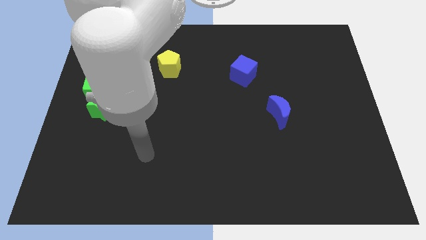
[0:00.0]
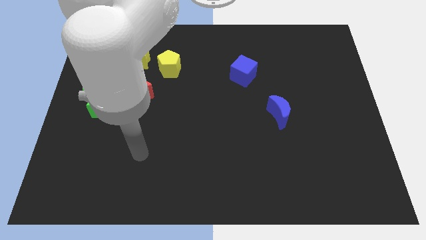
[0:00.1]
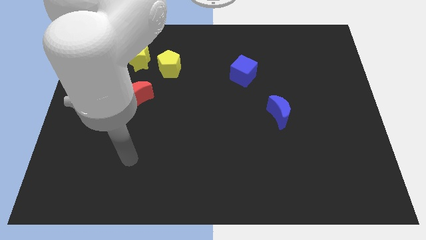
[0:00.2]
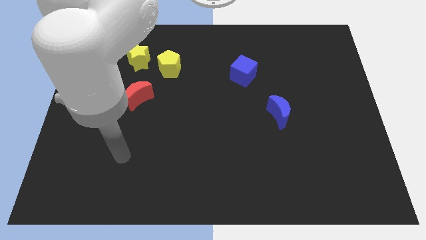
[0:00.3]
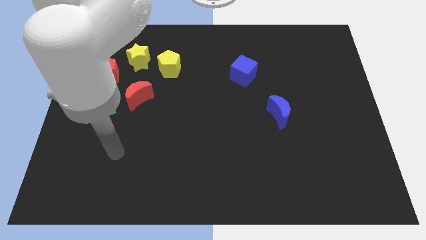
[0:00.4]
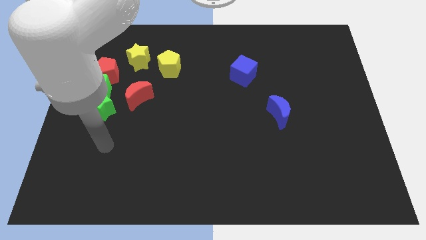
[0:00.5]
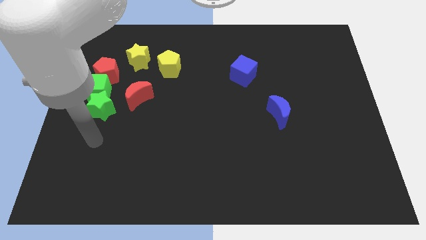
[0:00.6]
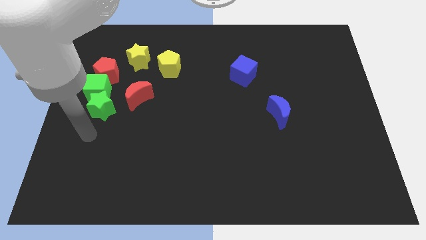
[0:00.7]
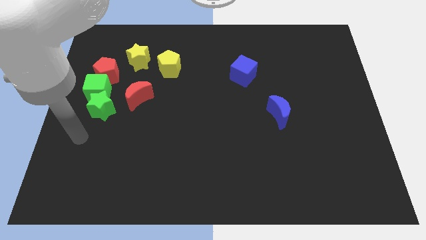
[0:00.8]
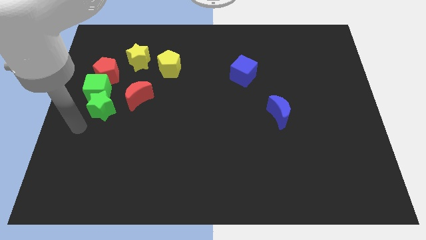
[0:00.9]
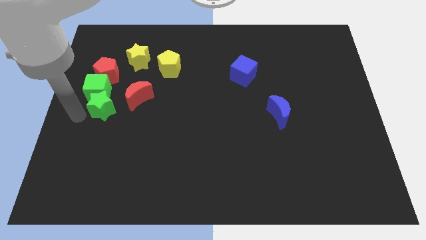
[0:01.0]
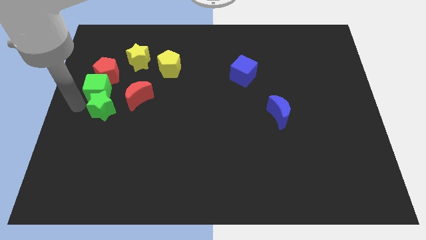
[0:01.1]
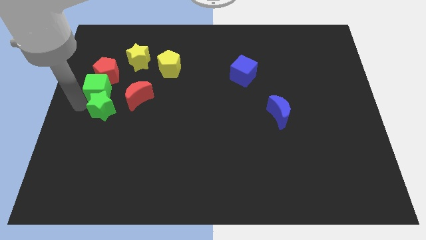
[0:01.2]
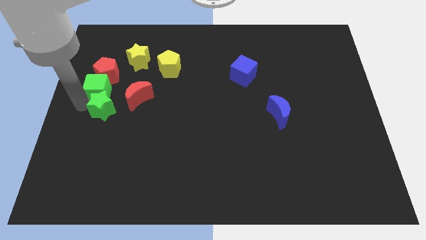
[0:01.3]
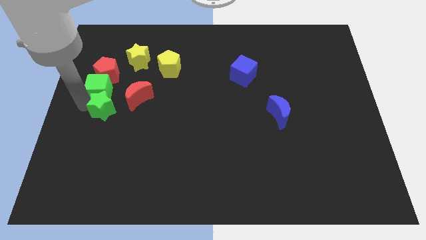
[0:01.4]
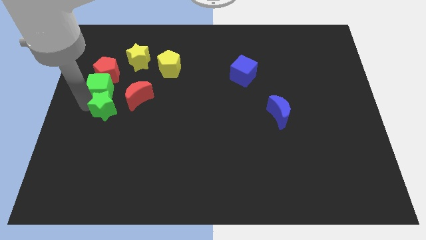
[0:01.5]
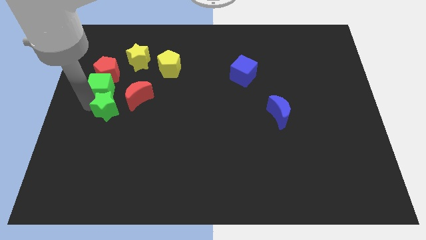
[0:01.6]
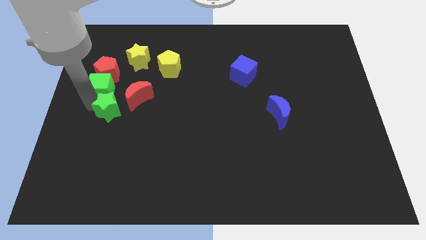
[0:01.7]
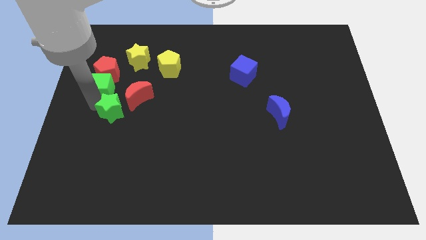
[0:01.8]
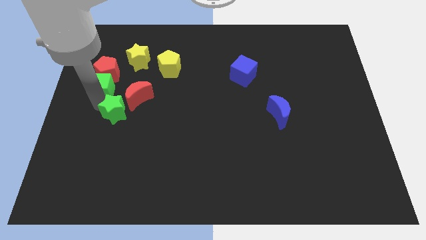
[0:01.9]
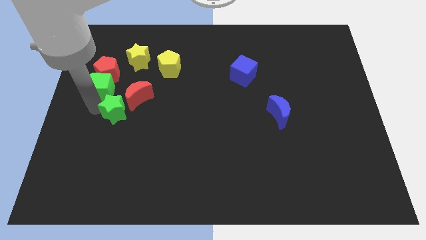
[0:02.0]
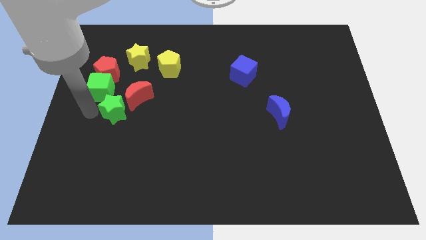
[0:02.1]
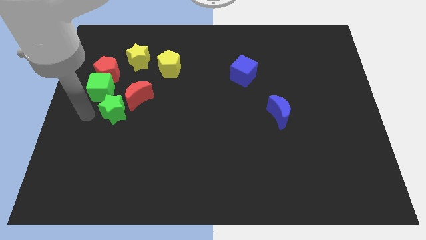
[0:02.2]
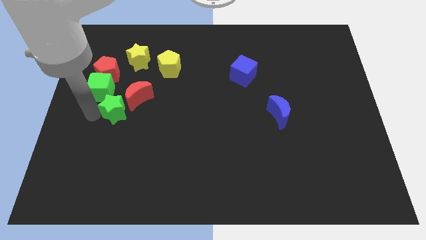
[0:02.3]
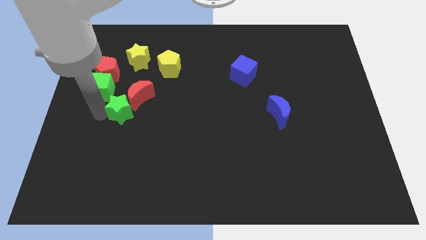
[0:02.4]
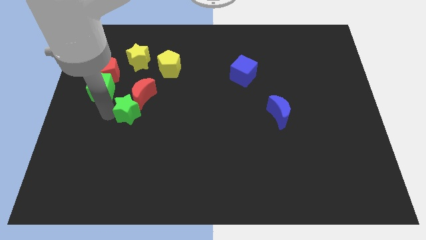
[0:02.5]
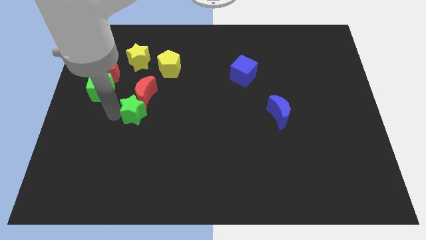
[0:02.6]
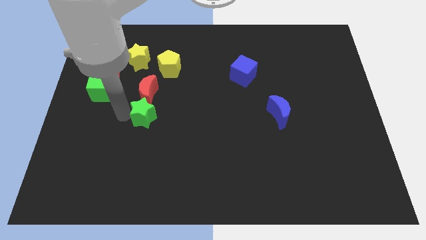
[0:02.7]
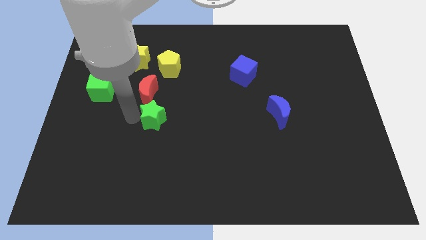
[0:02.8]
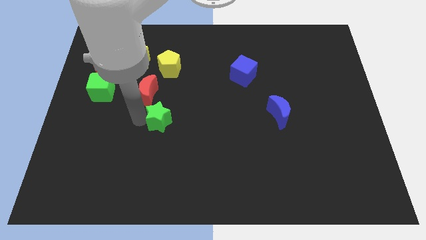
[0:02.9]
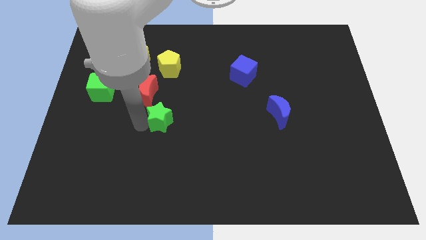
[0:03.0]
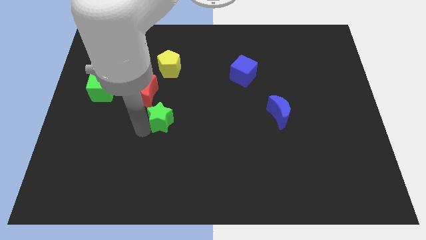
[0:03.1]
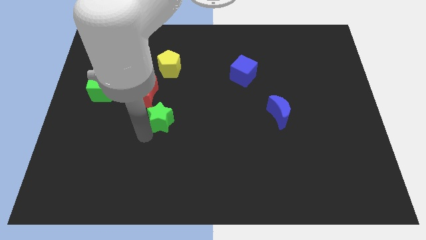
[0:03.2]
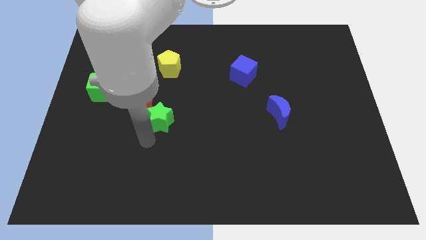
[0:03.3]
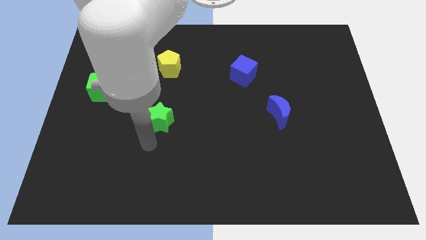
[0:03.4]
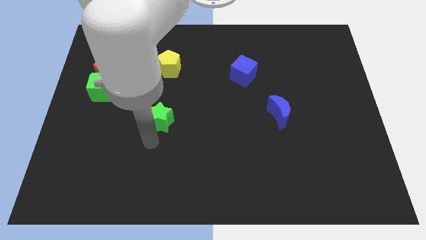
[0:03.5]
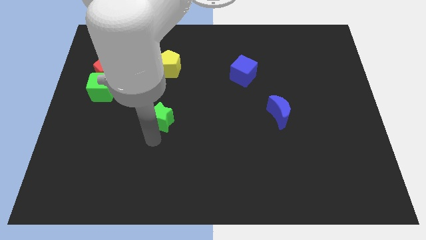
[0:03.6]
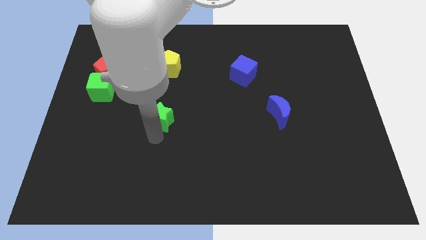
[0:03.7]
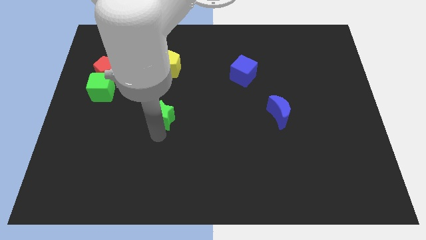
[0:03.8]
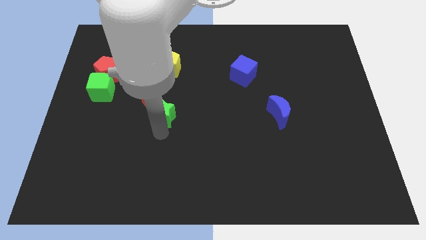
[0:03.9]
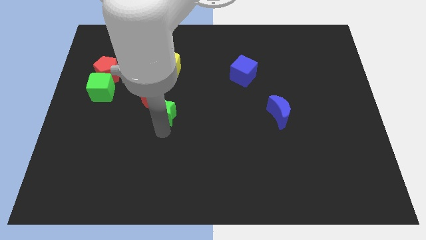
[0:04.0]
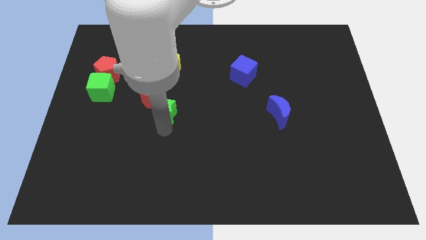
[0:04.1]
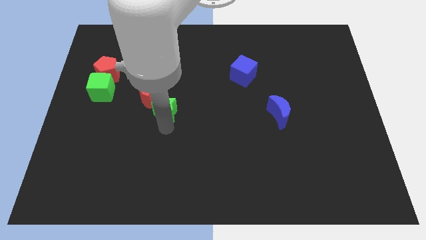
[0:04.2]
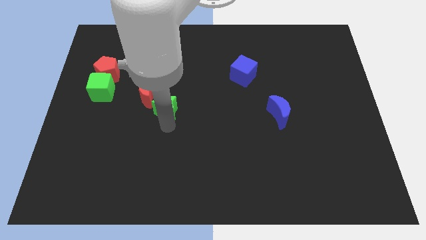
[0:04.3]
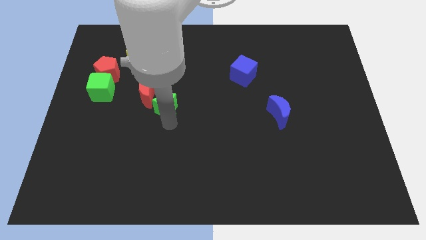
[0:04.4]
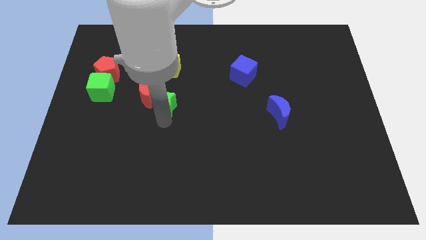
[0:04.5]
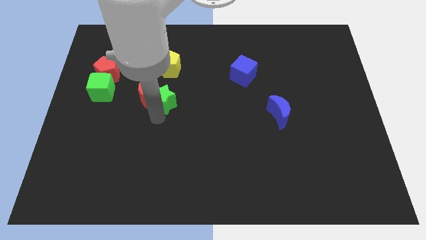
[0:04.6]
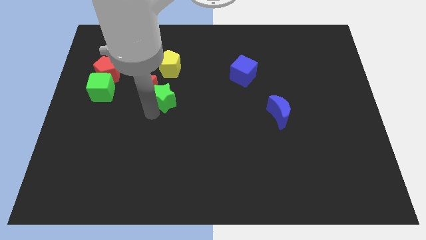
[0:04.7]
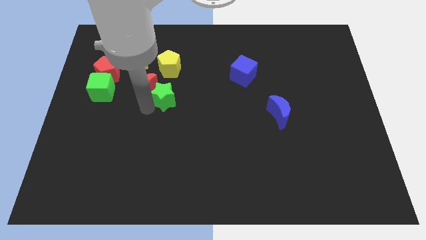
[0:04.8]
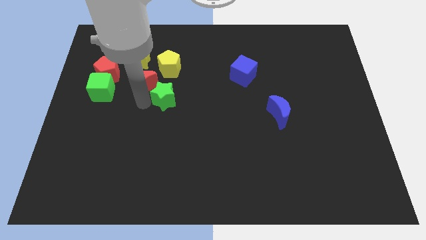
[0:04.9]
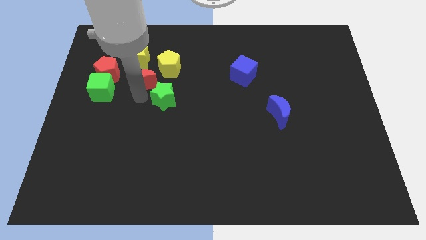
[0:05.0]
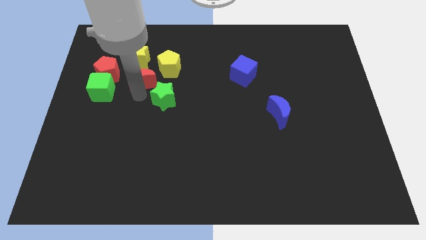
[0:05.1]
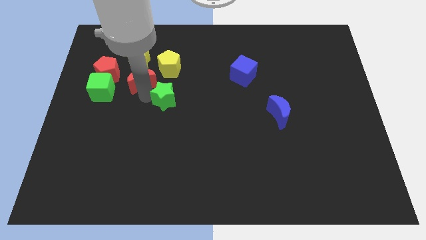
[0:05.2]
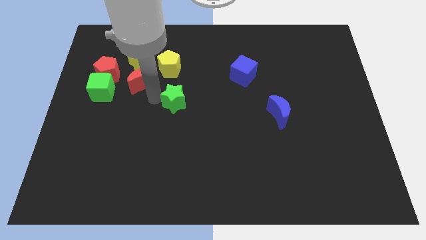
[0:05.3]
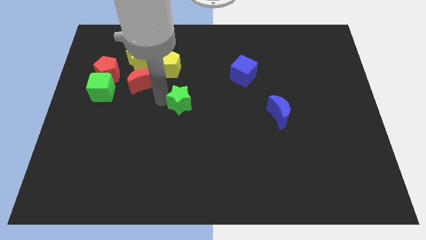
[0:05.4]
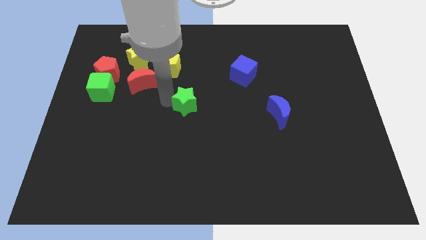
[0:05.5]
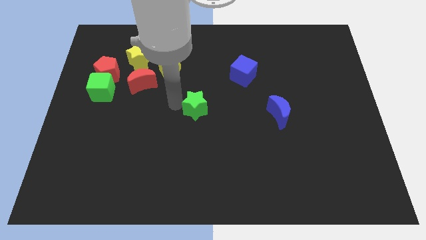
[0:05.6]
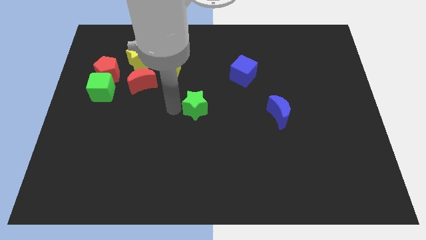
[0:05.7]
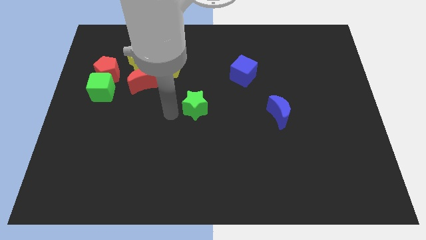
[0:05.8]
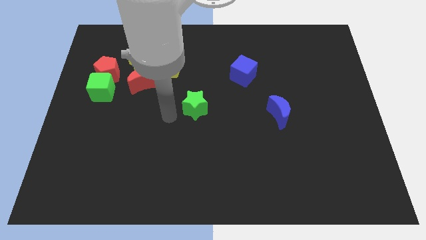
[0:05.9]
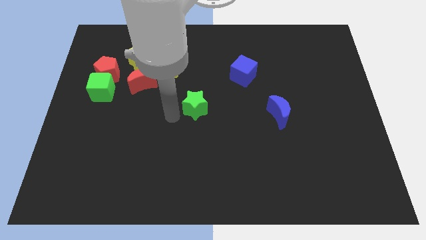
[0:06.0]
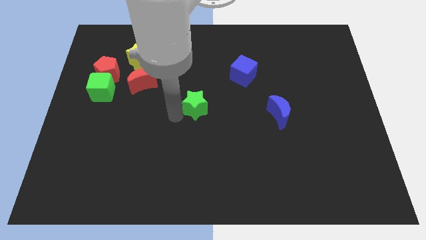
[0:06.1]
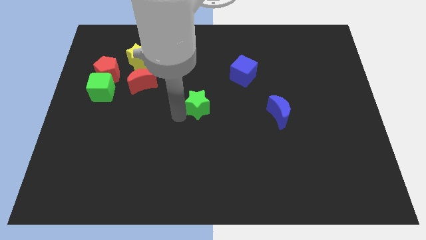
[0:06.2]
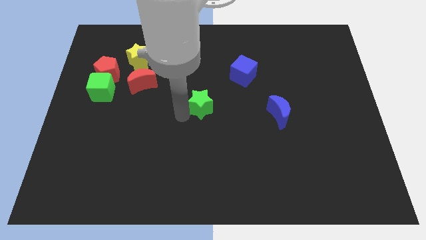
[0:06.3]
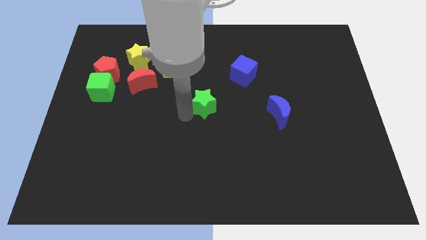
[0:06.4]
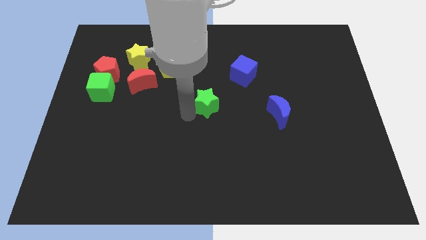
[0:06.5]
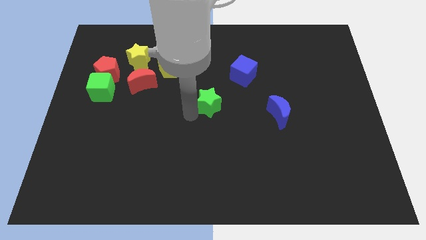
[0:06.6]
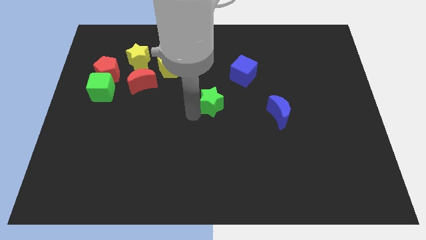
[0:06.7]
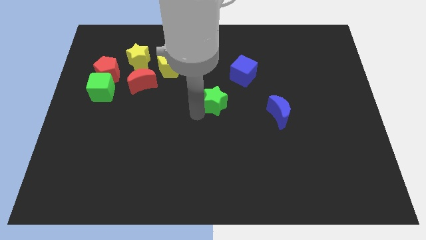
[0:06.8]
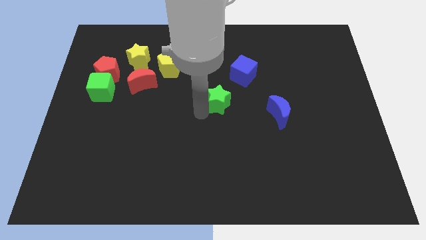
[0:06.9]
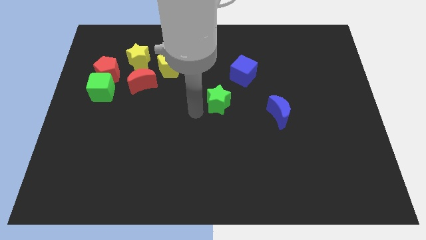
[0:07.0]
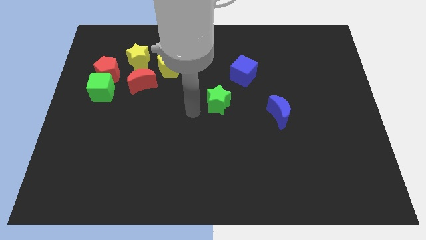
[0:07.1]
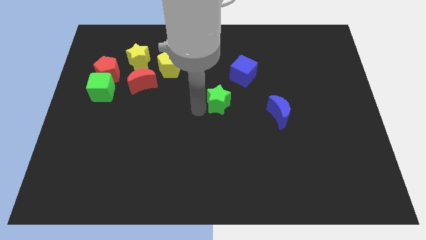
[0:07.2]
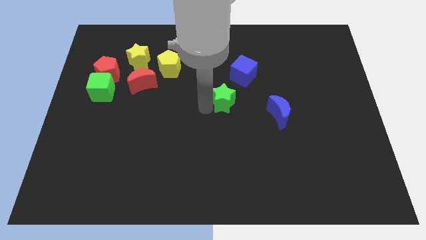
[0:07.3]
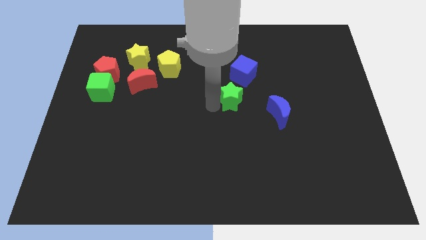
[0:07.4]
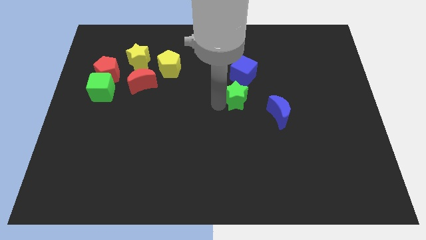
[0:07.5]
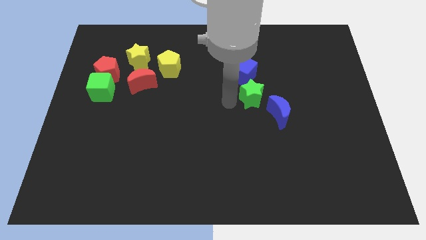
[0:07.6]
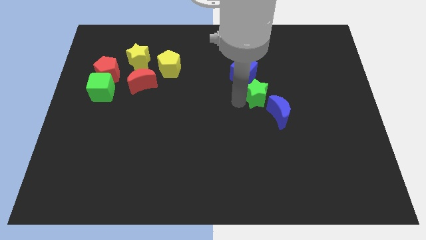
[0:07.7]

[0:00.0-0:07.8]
move the green star above the blue moon
